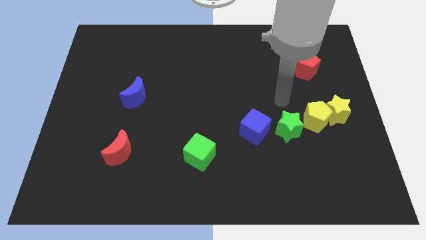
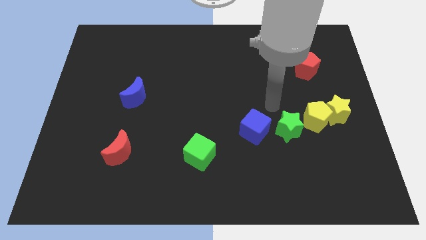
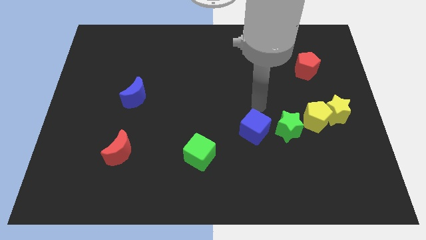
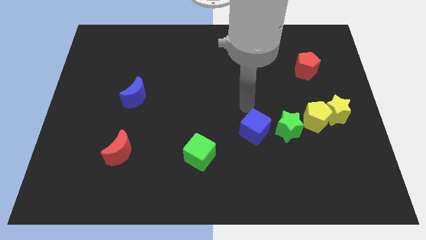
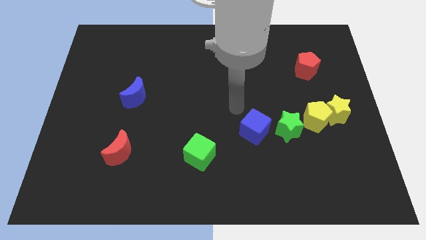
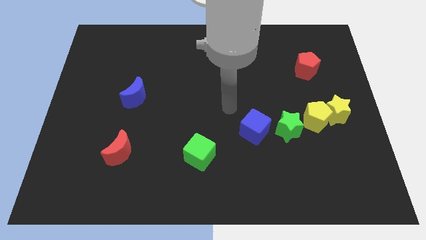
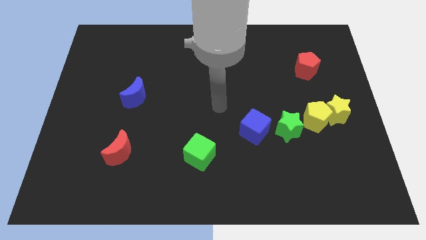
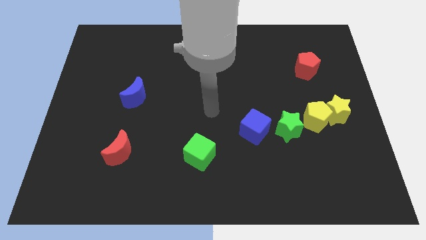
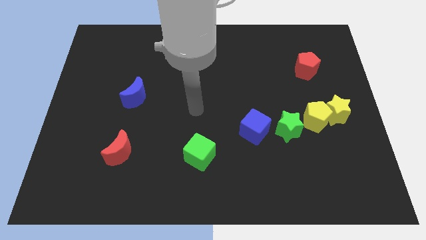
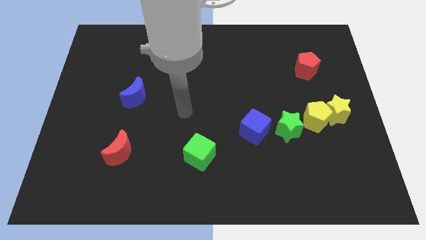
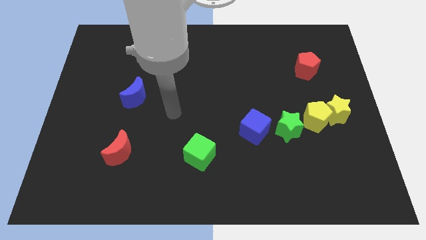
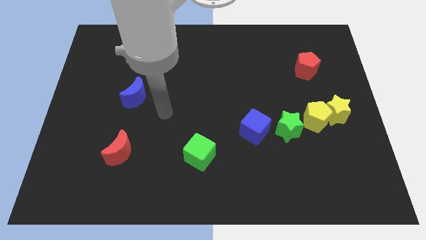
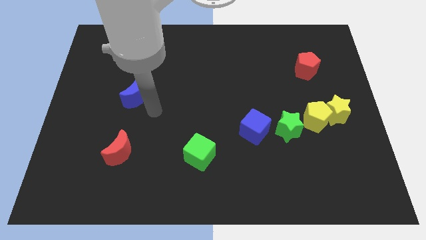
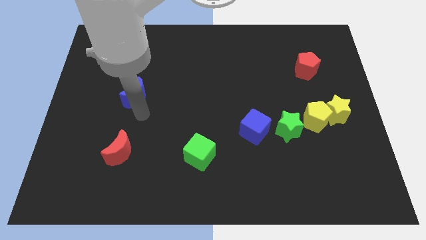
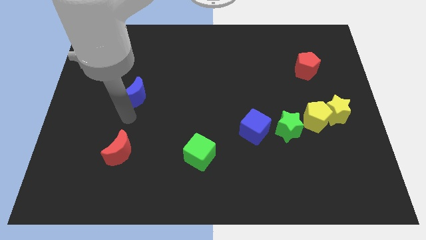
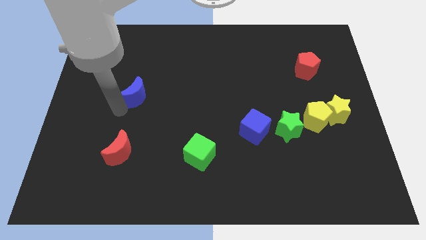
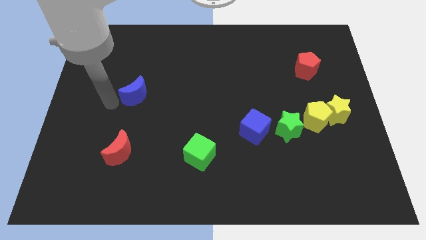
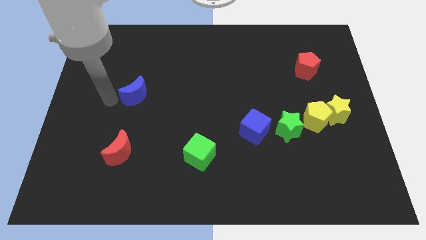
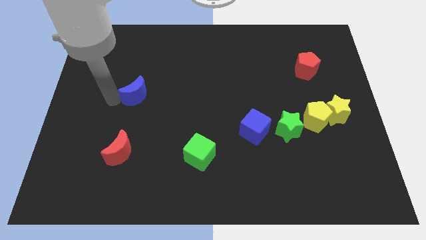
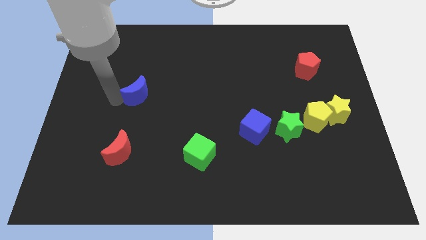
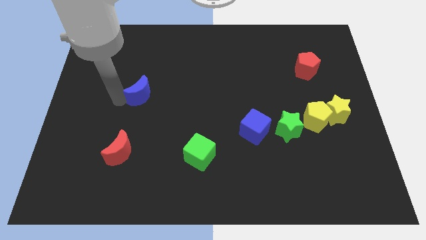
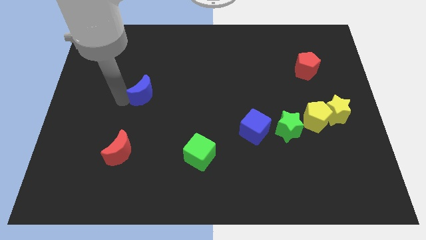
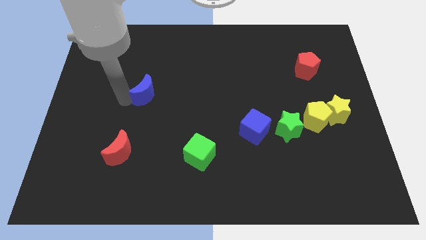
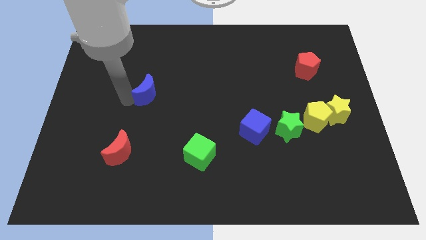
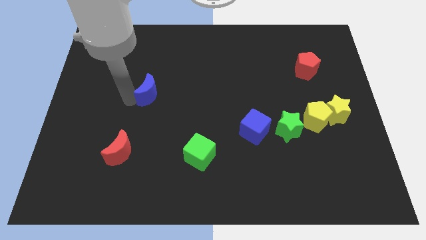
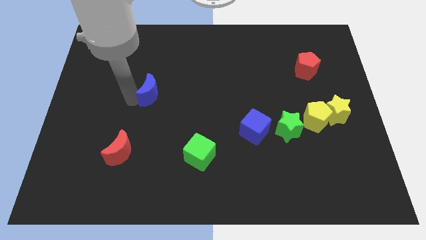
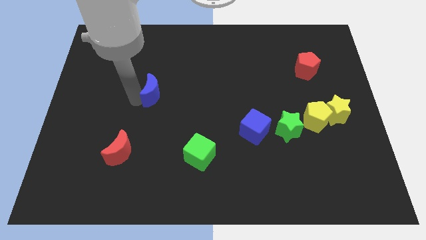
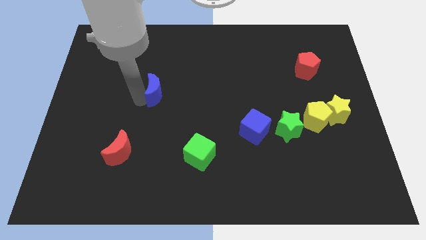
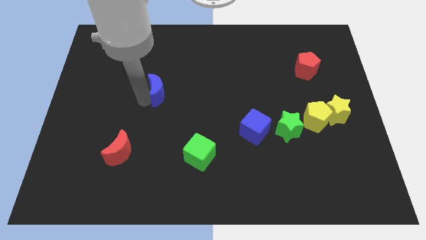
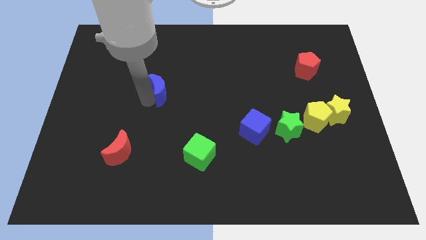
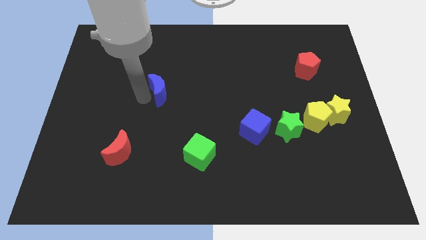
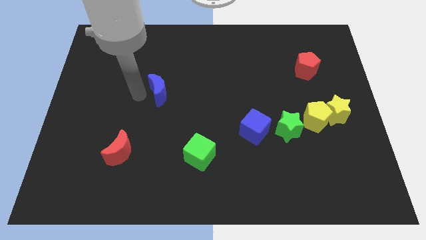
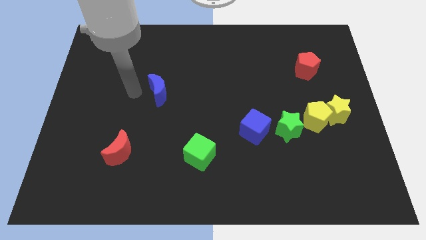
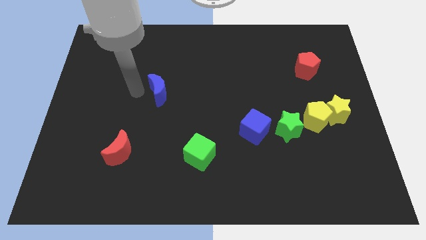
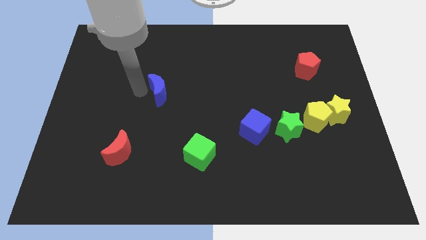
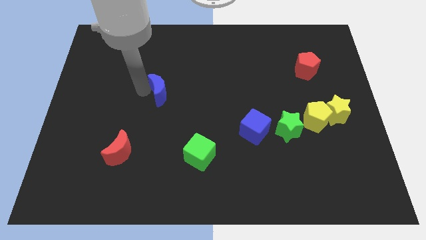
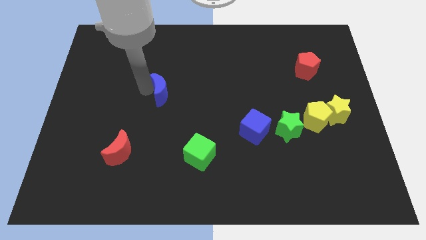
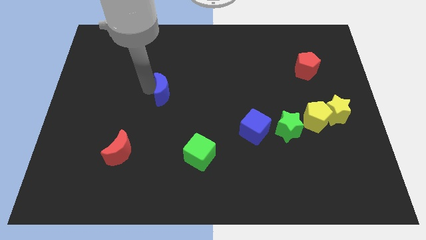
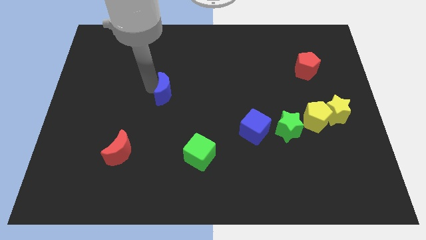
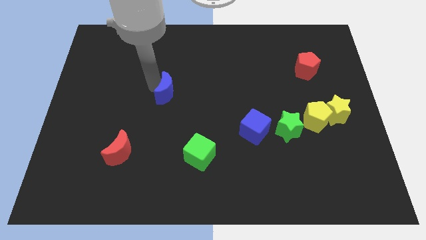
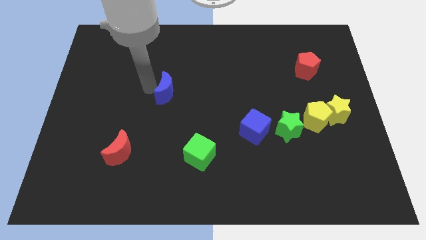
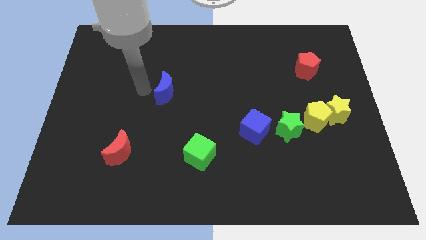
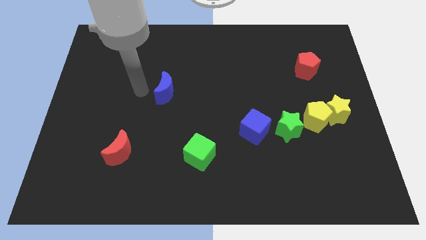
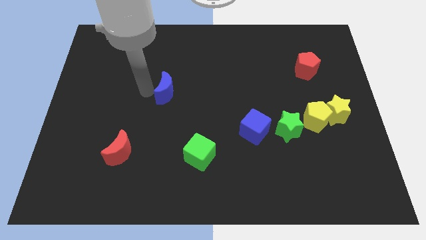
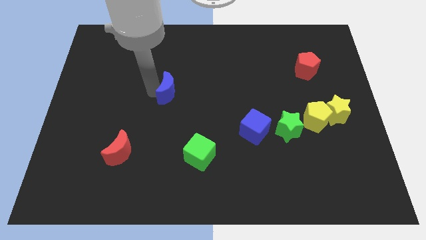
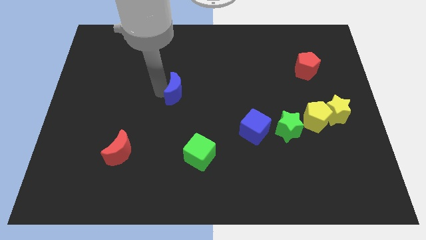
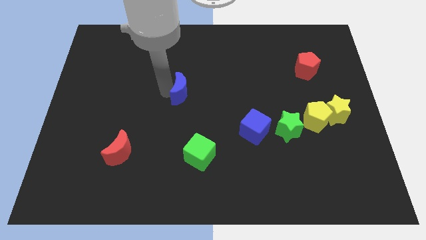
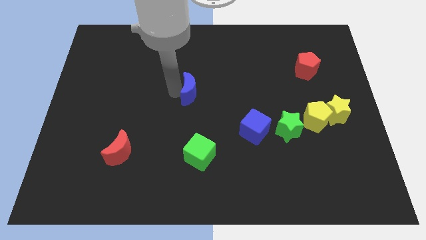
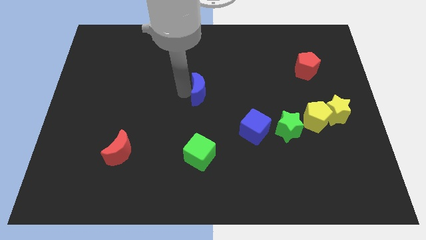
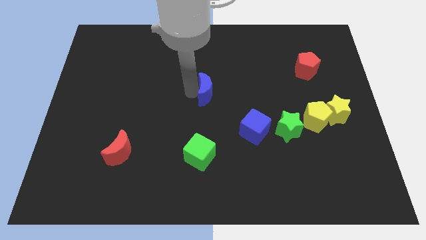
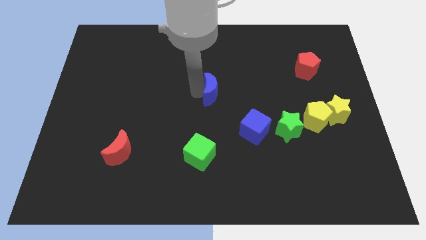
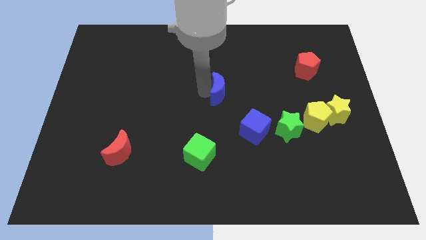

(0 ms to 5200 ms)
push the blue moon to the right

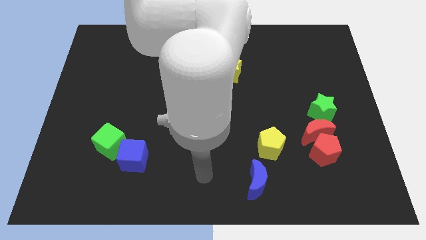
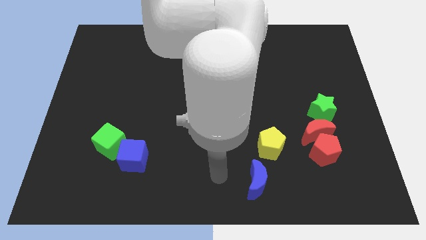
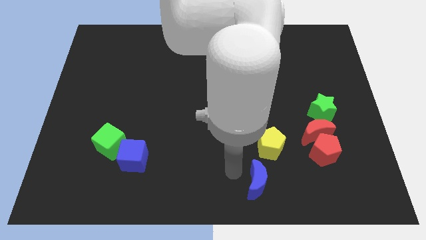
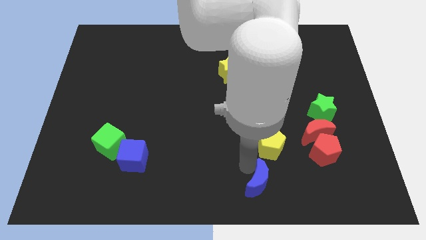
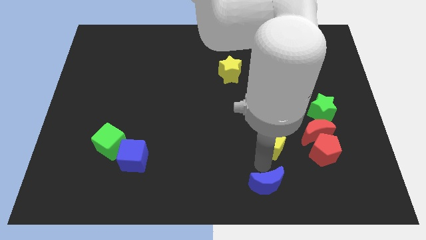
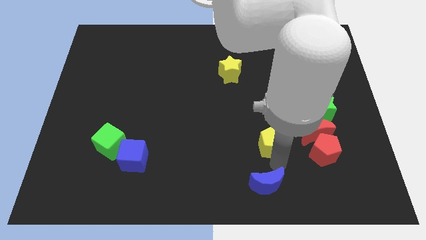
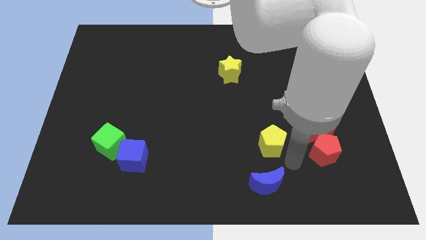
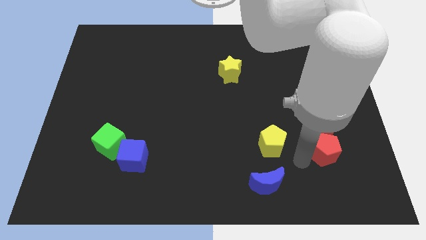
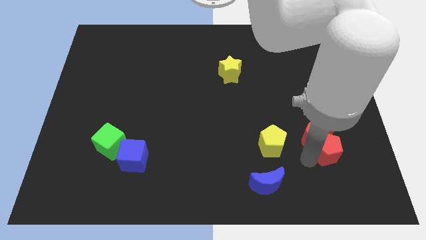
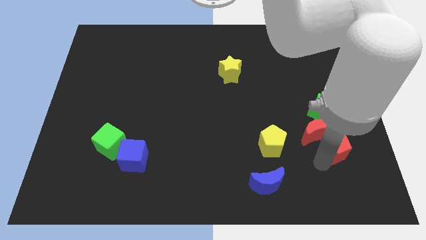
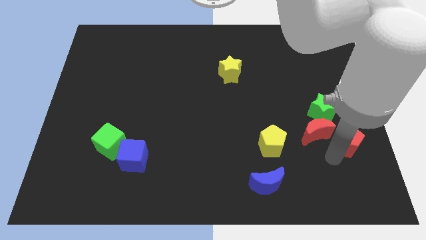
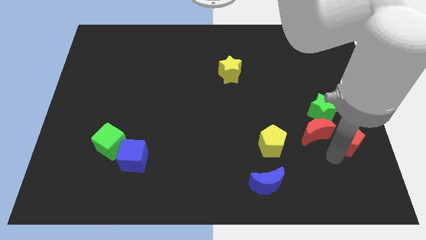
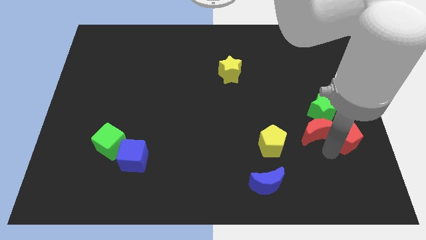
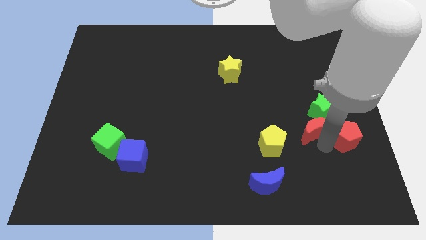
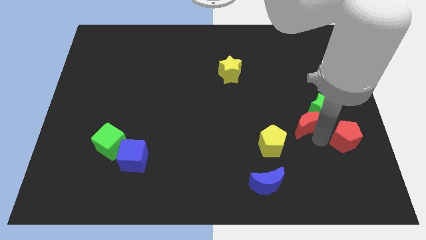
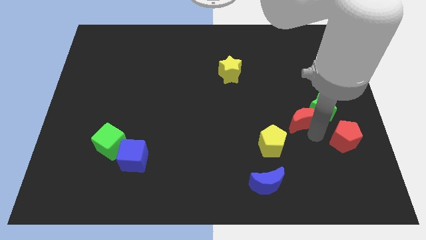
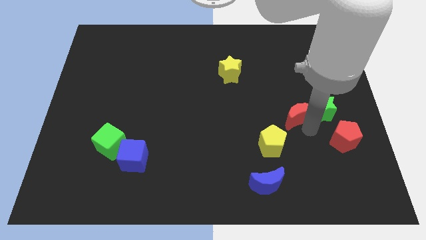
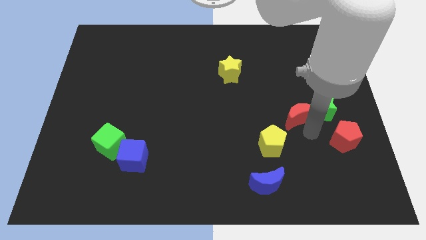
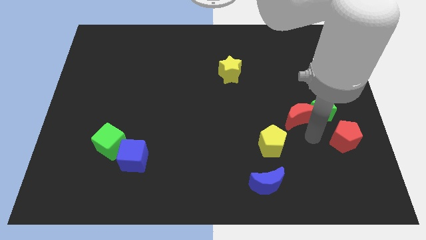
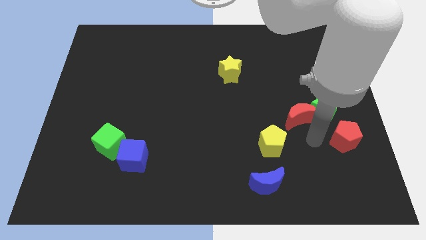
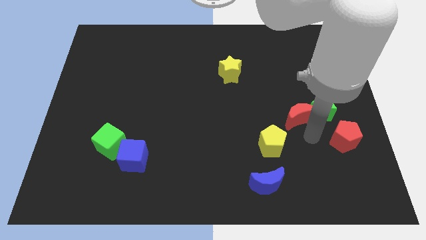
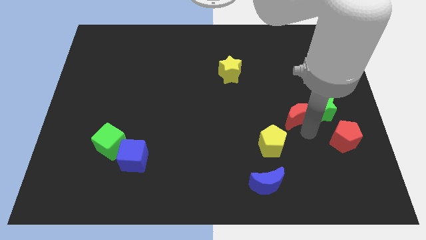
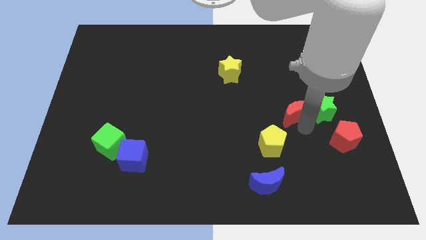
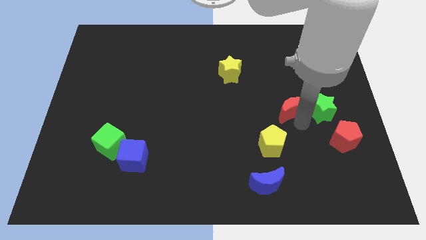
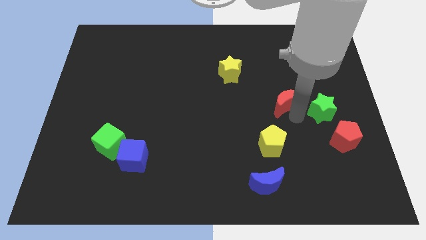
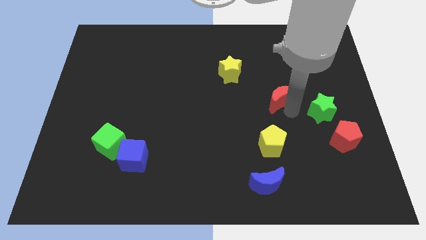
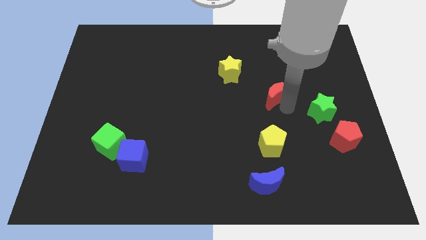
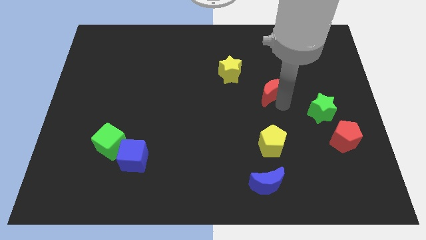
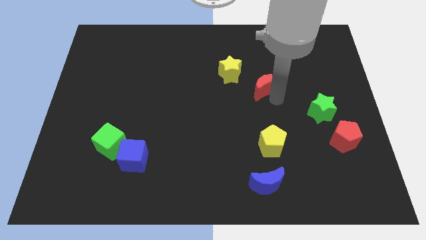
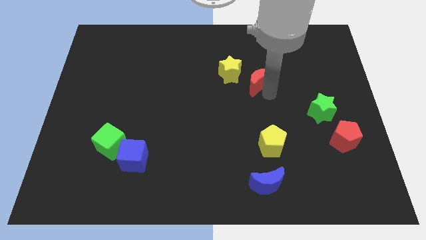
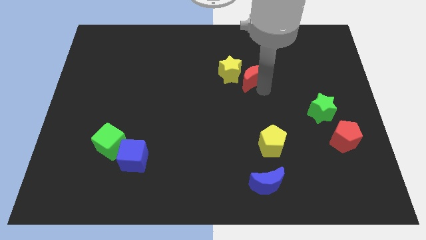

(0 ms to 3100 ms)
slide the red moon diagonally upwards and to the left
